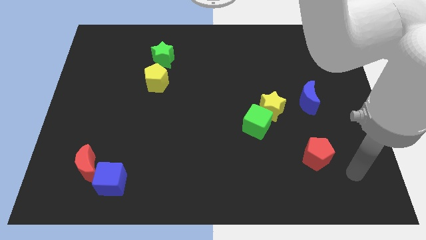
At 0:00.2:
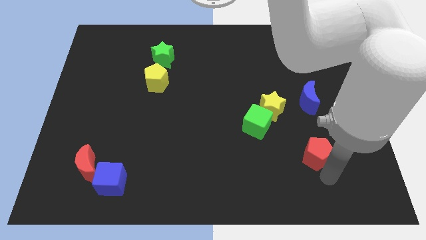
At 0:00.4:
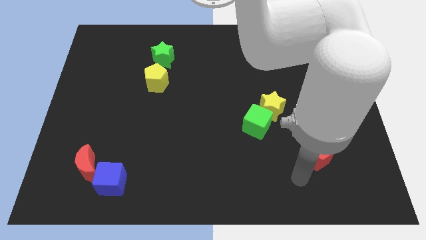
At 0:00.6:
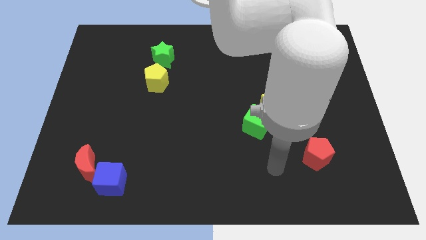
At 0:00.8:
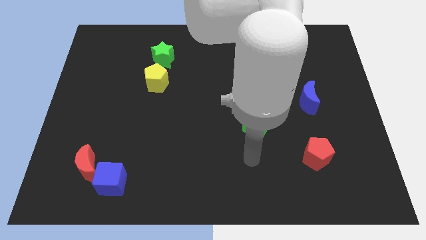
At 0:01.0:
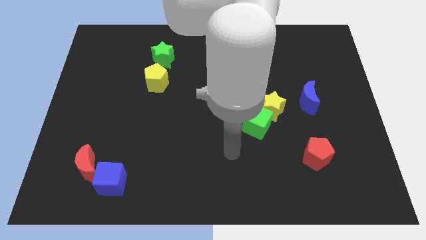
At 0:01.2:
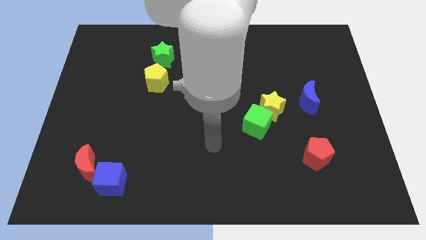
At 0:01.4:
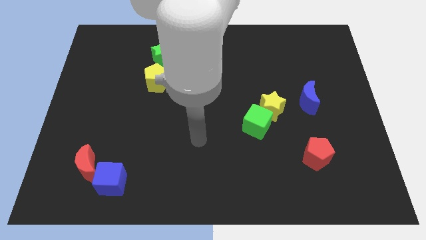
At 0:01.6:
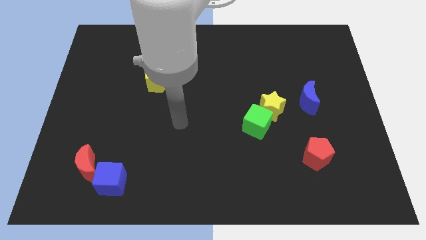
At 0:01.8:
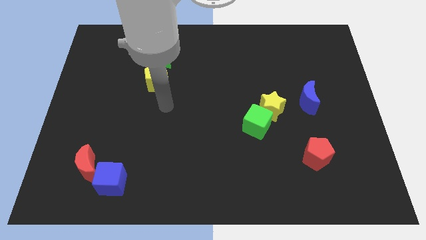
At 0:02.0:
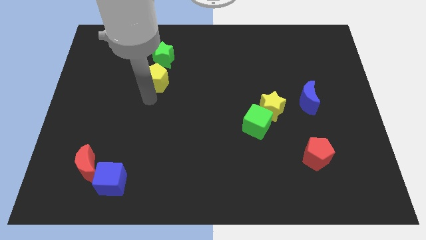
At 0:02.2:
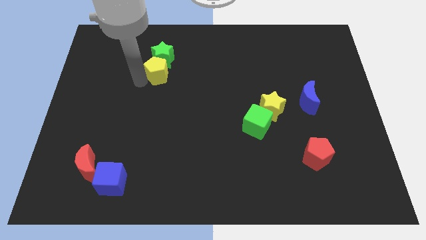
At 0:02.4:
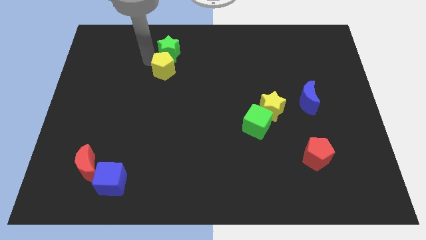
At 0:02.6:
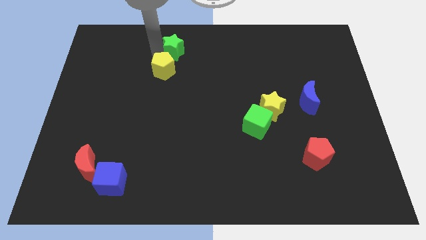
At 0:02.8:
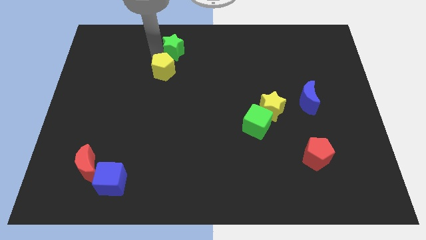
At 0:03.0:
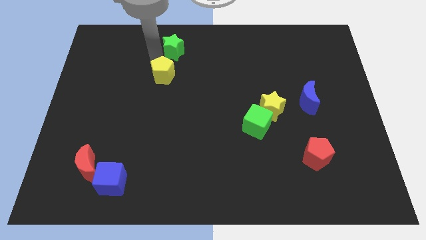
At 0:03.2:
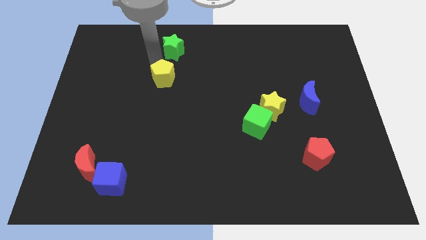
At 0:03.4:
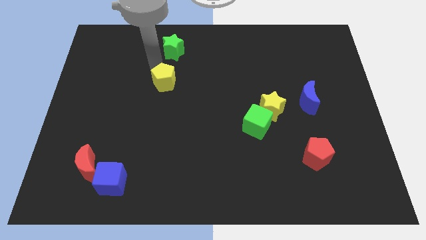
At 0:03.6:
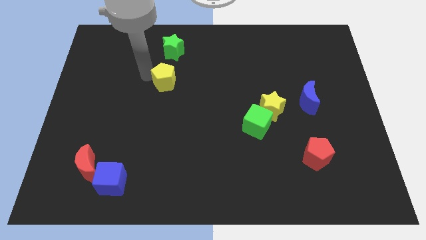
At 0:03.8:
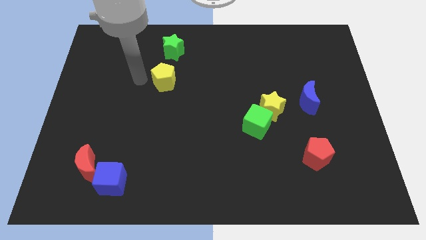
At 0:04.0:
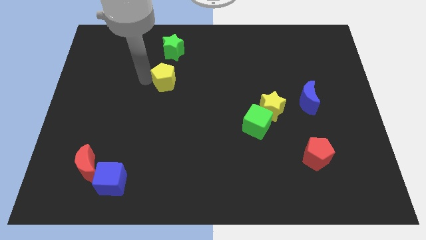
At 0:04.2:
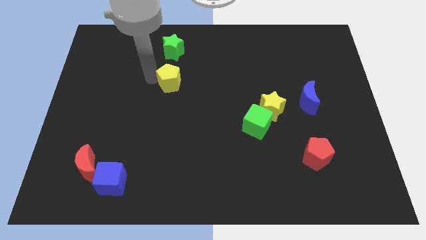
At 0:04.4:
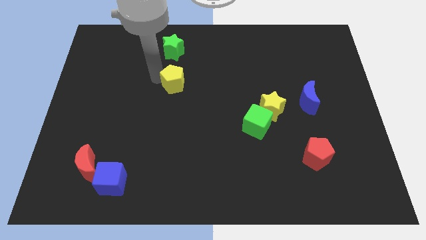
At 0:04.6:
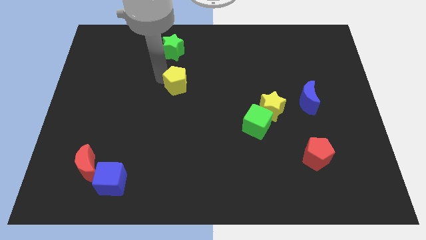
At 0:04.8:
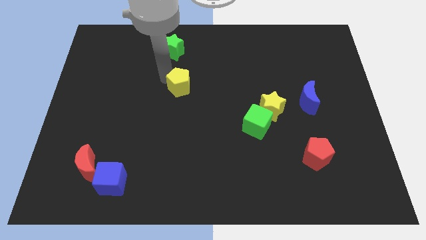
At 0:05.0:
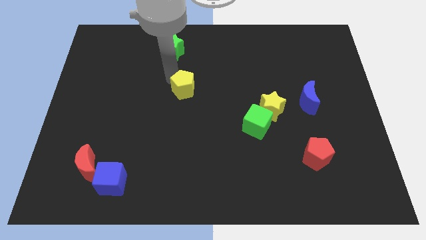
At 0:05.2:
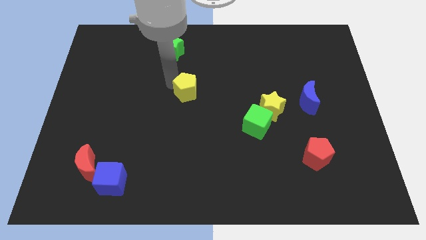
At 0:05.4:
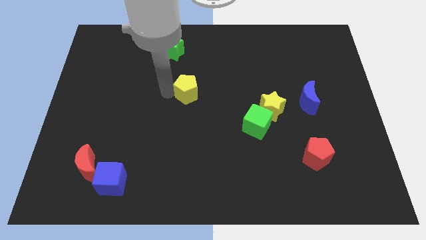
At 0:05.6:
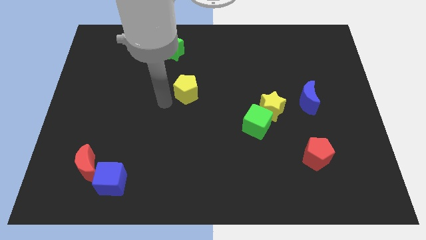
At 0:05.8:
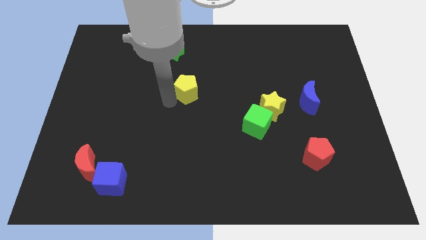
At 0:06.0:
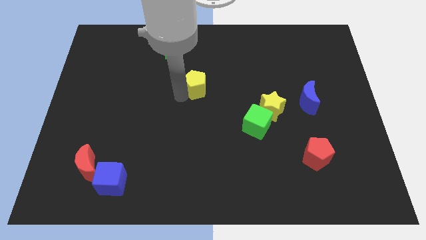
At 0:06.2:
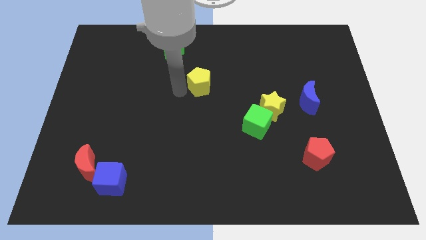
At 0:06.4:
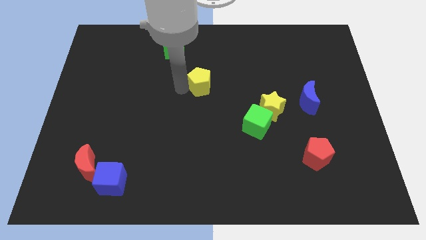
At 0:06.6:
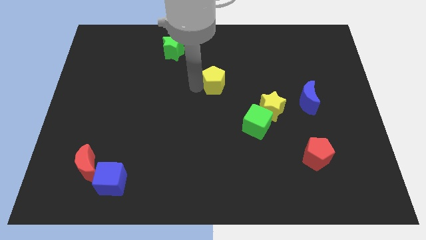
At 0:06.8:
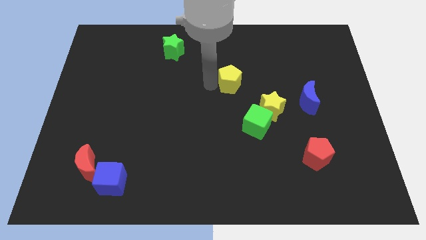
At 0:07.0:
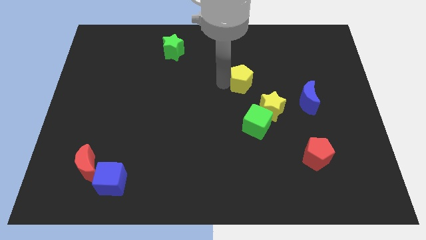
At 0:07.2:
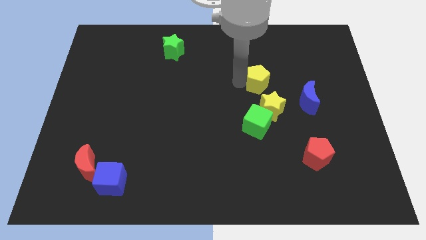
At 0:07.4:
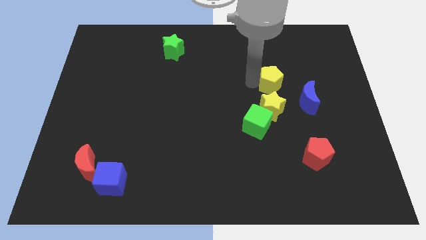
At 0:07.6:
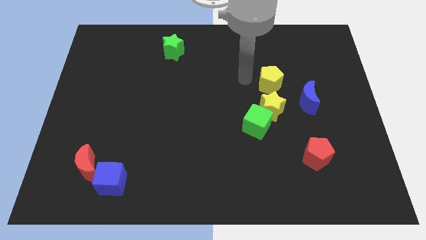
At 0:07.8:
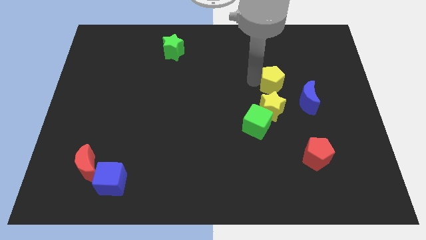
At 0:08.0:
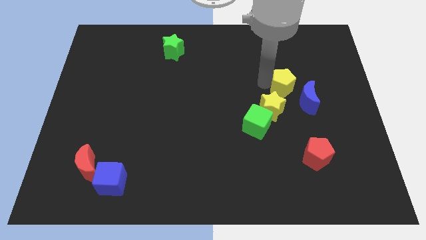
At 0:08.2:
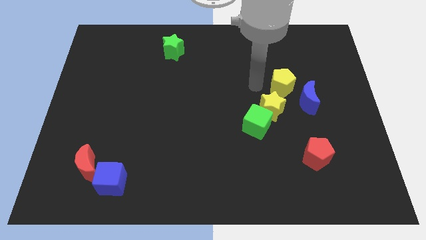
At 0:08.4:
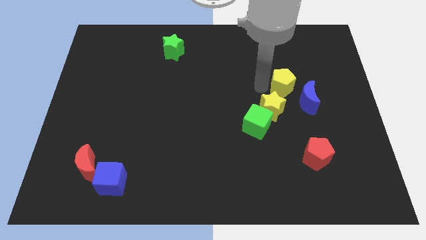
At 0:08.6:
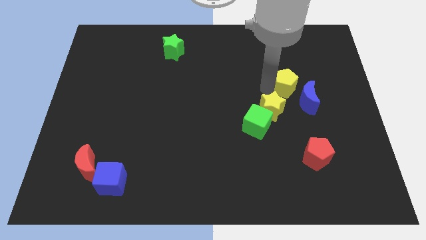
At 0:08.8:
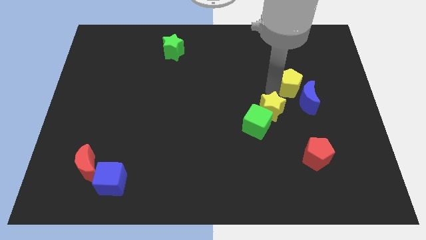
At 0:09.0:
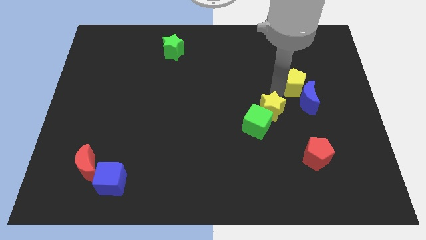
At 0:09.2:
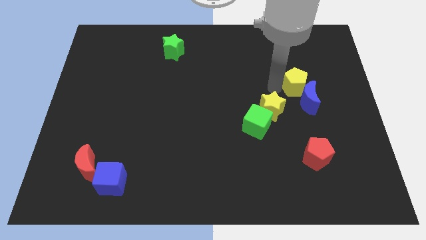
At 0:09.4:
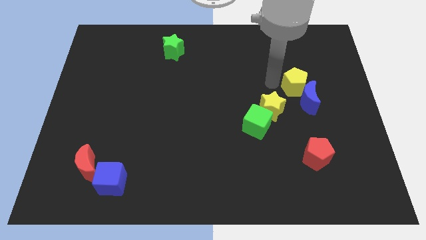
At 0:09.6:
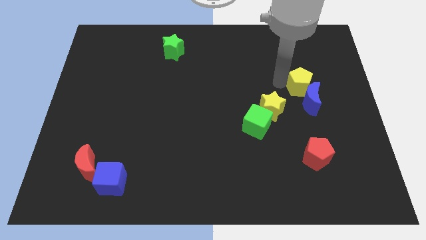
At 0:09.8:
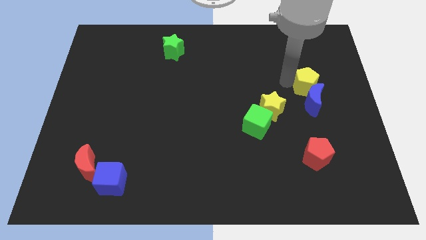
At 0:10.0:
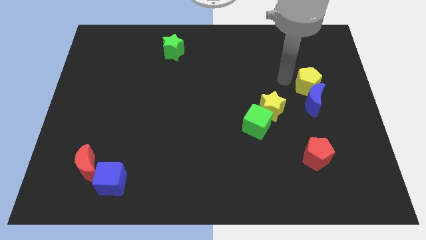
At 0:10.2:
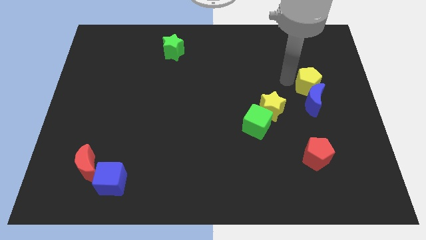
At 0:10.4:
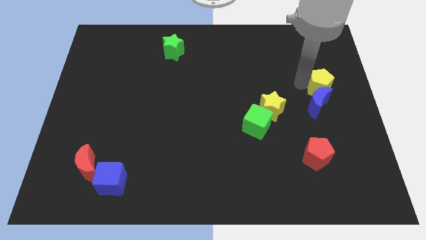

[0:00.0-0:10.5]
push the yellow pentagon to the right side of the board

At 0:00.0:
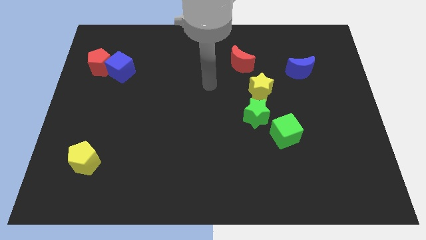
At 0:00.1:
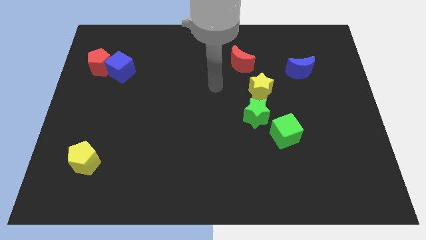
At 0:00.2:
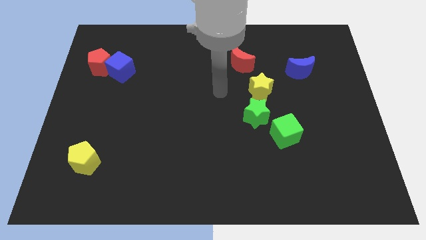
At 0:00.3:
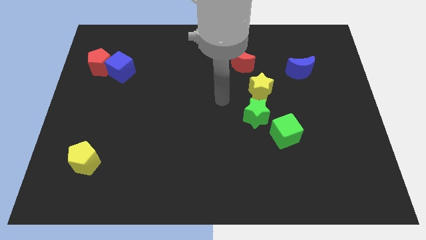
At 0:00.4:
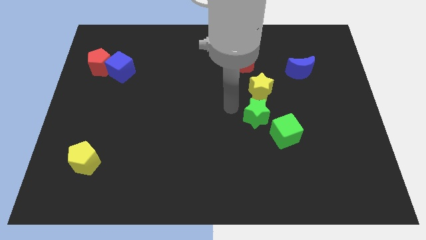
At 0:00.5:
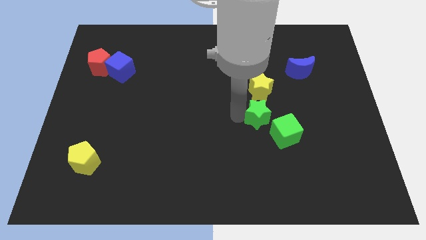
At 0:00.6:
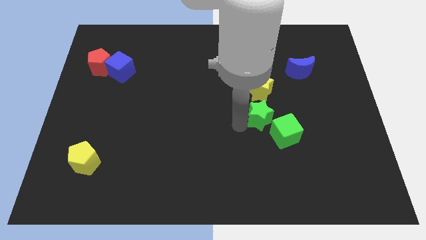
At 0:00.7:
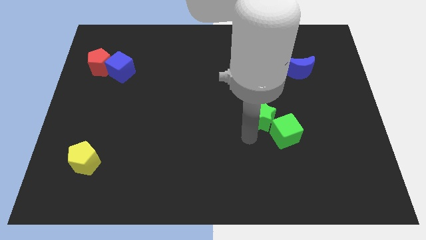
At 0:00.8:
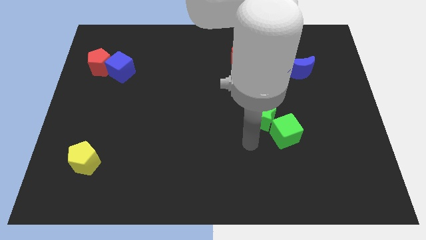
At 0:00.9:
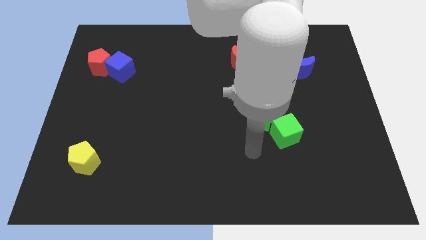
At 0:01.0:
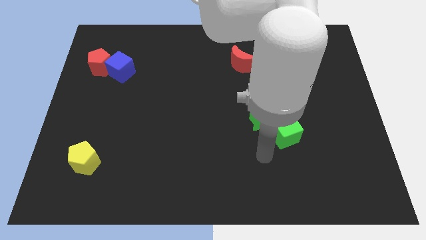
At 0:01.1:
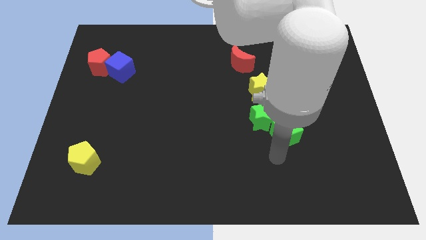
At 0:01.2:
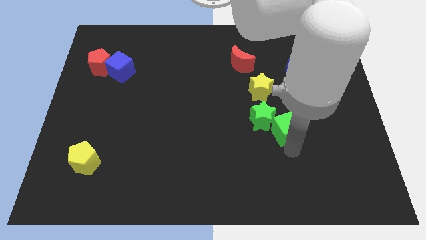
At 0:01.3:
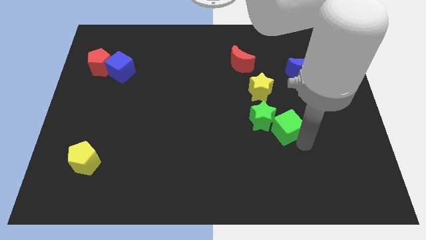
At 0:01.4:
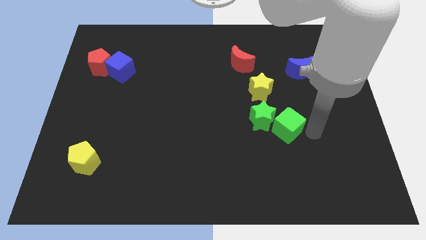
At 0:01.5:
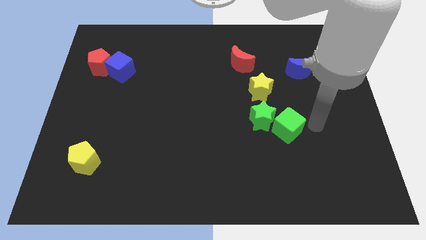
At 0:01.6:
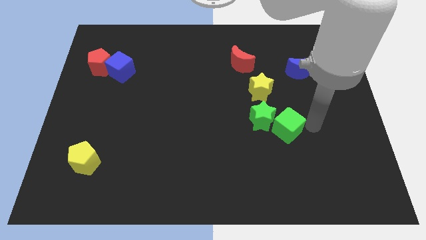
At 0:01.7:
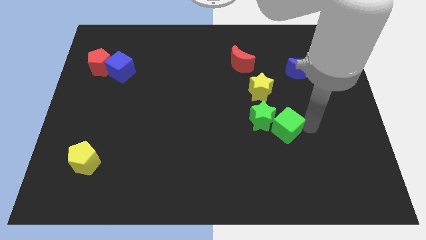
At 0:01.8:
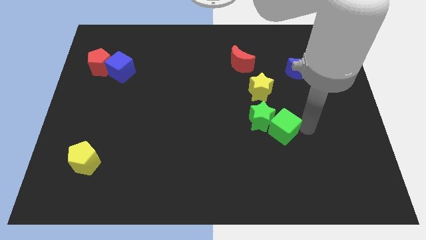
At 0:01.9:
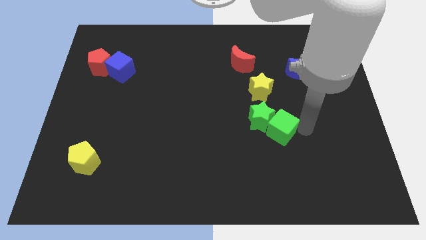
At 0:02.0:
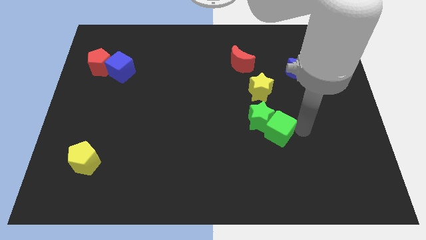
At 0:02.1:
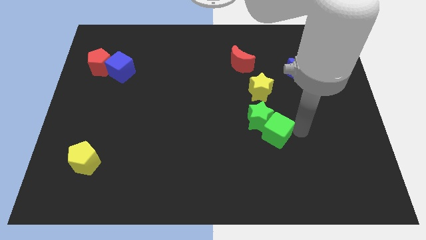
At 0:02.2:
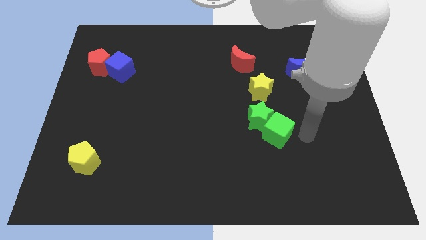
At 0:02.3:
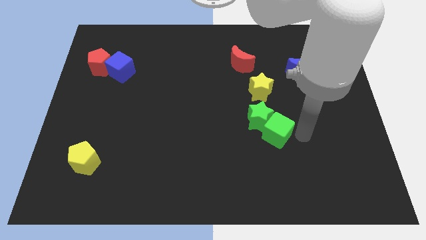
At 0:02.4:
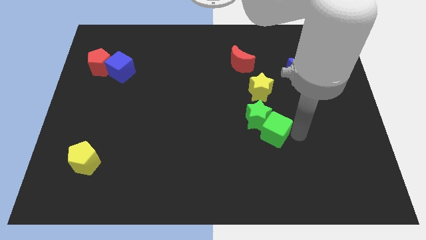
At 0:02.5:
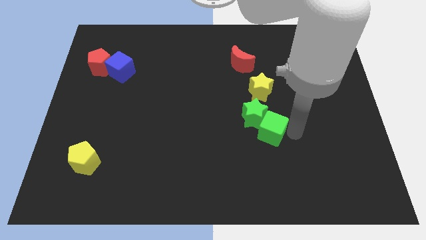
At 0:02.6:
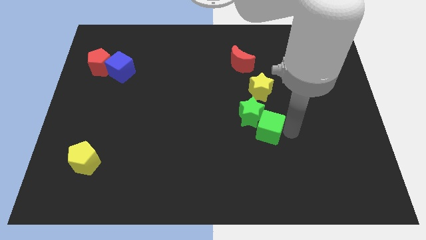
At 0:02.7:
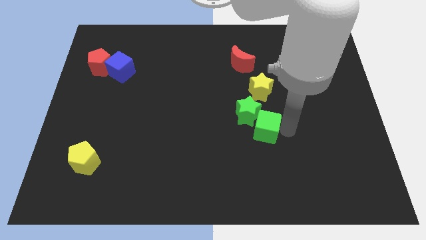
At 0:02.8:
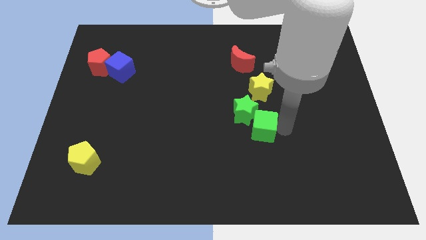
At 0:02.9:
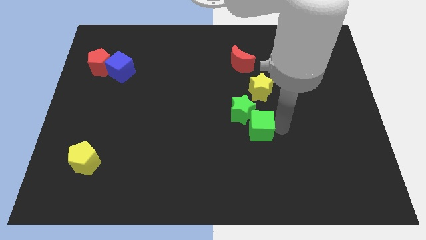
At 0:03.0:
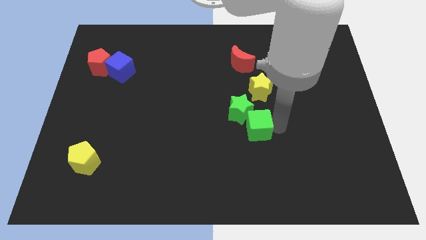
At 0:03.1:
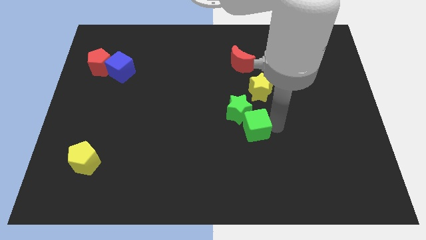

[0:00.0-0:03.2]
move the green cube to the center of the board
